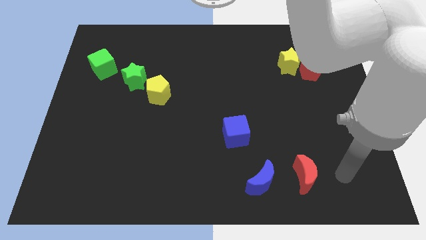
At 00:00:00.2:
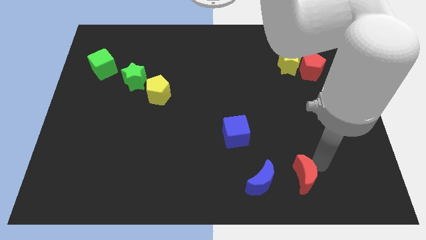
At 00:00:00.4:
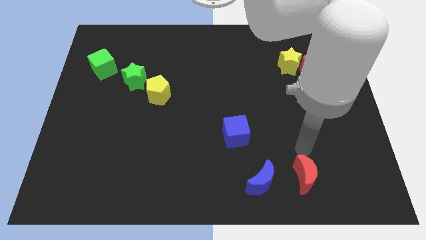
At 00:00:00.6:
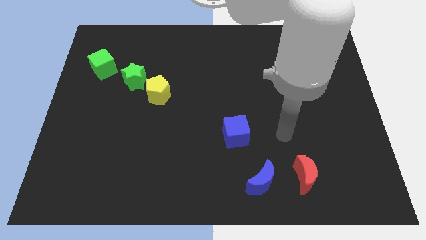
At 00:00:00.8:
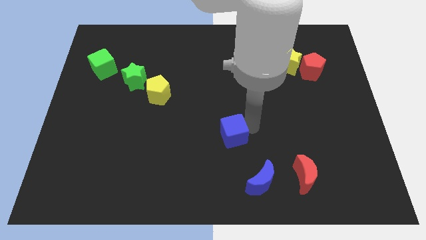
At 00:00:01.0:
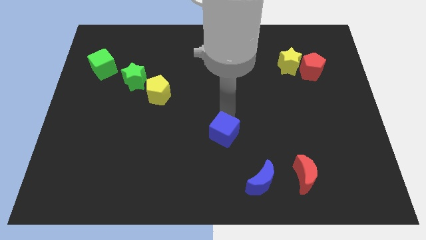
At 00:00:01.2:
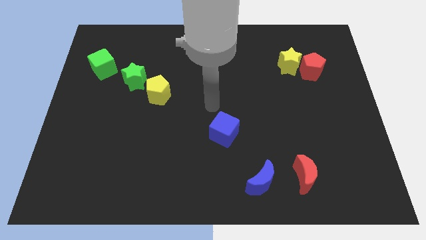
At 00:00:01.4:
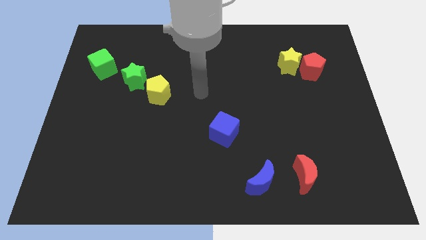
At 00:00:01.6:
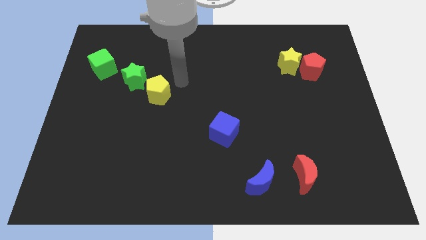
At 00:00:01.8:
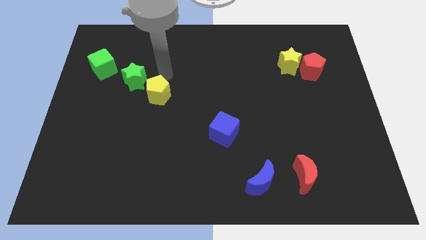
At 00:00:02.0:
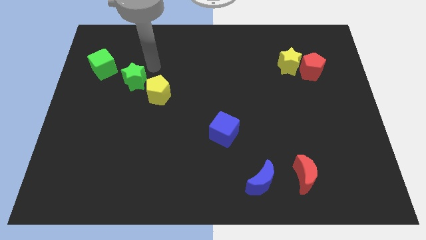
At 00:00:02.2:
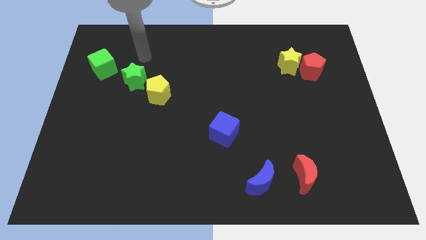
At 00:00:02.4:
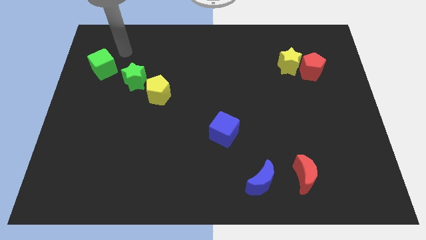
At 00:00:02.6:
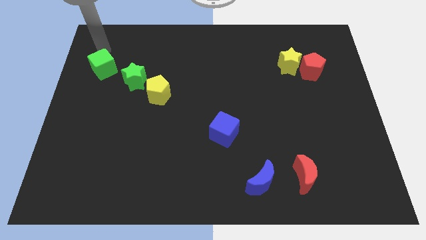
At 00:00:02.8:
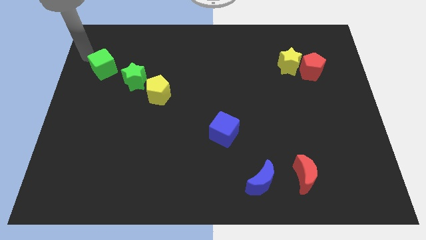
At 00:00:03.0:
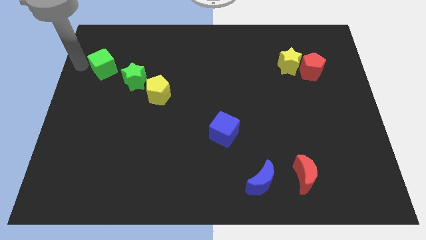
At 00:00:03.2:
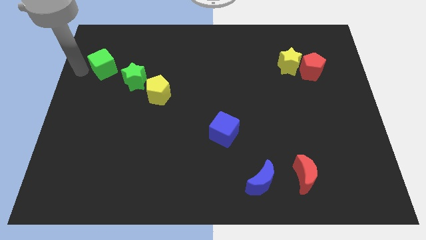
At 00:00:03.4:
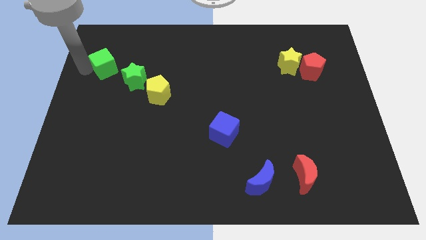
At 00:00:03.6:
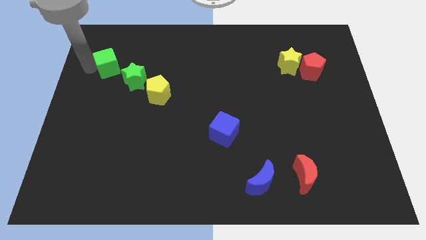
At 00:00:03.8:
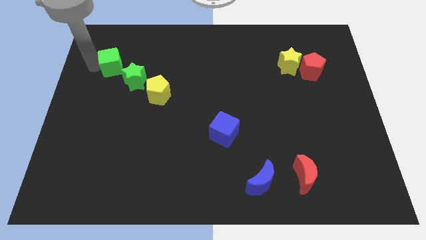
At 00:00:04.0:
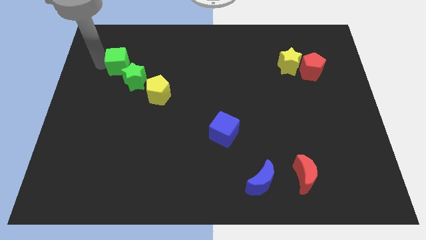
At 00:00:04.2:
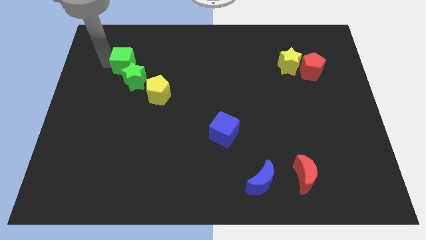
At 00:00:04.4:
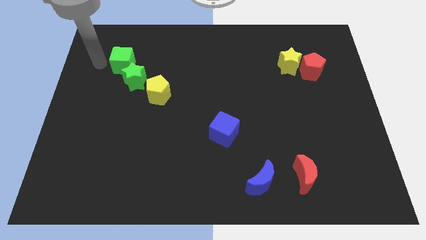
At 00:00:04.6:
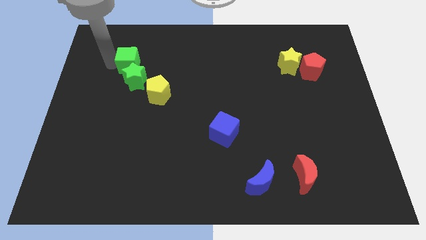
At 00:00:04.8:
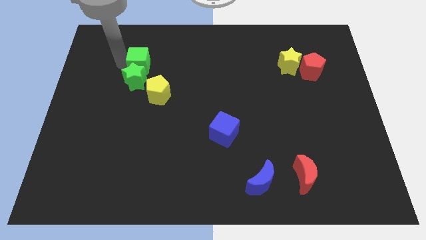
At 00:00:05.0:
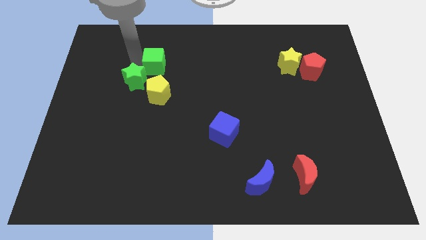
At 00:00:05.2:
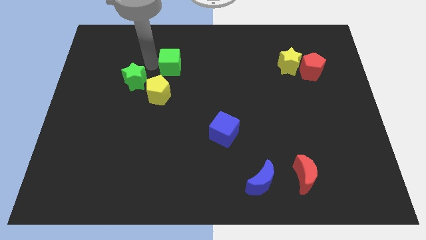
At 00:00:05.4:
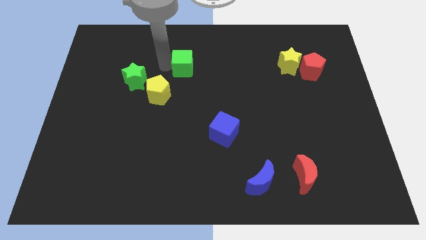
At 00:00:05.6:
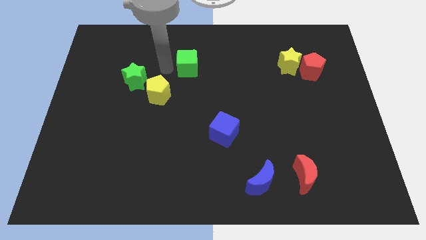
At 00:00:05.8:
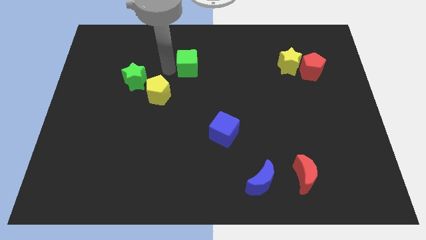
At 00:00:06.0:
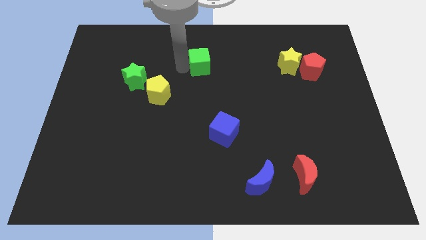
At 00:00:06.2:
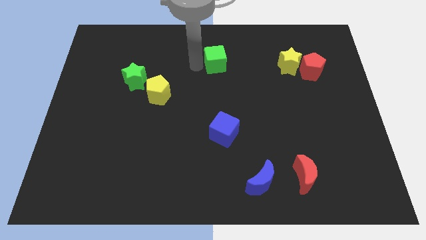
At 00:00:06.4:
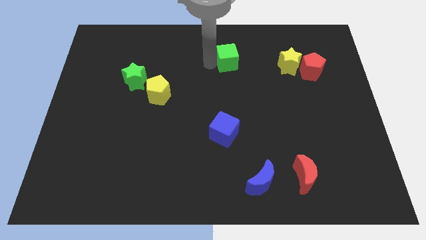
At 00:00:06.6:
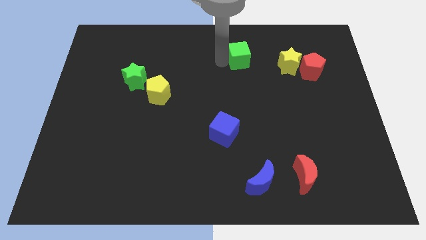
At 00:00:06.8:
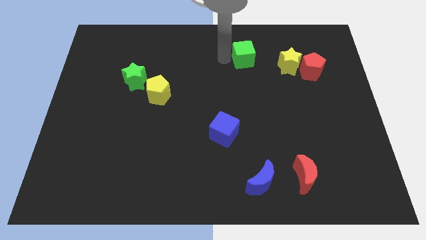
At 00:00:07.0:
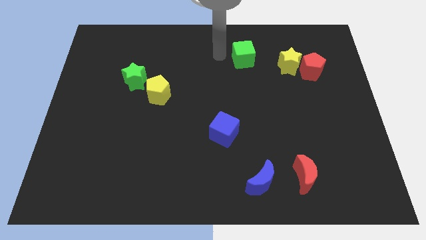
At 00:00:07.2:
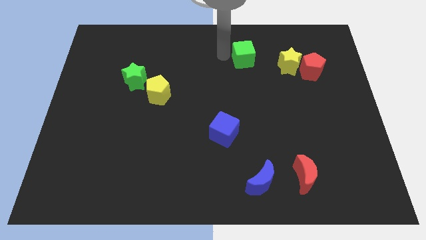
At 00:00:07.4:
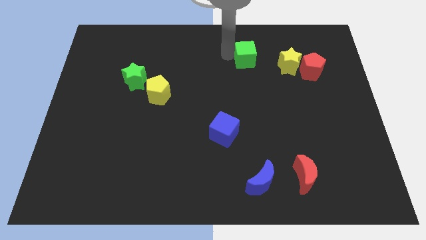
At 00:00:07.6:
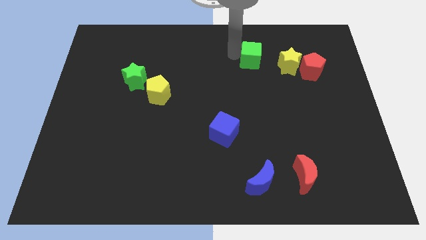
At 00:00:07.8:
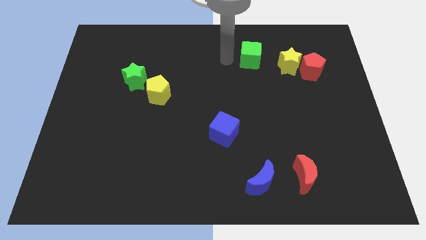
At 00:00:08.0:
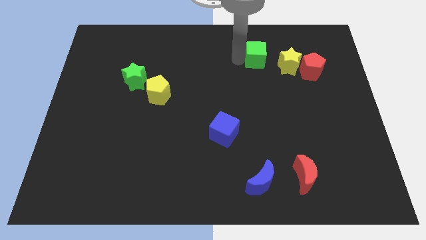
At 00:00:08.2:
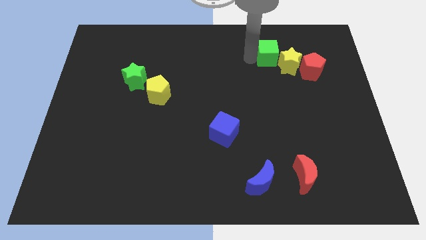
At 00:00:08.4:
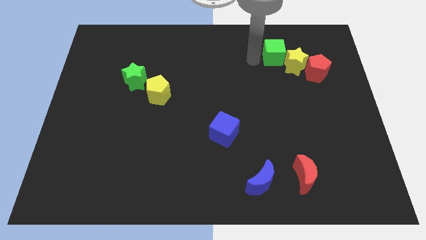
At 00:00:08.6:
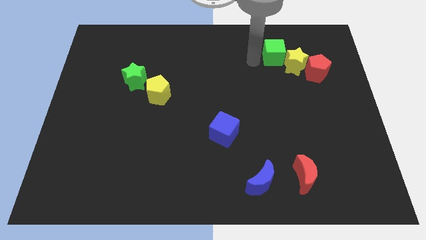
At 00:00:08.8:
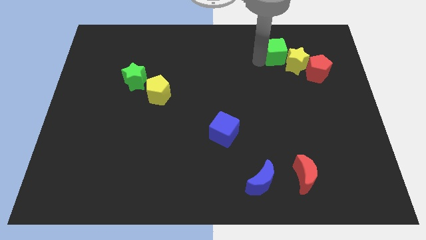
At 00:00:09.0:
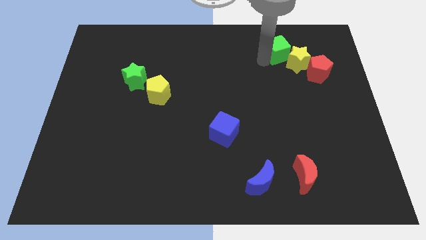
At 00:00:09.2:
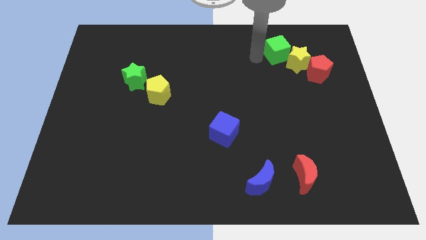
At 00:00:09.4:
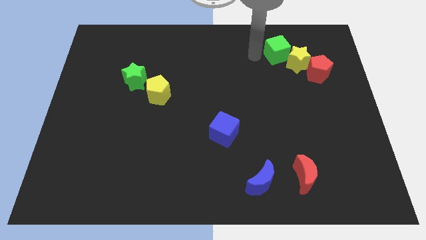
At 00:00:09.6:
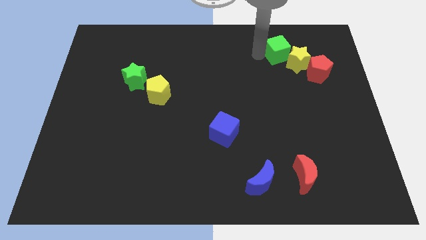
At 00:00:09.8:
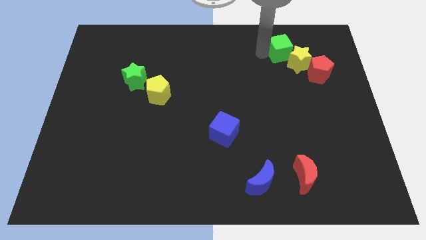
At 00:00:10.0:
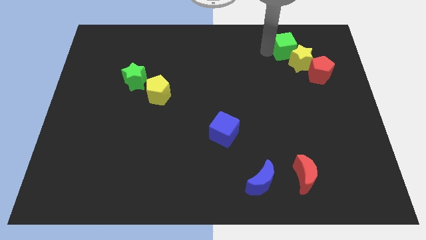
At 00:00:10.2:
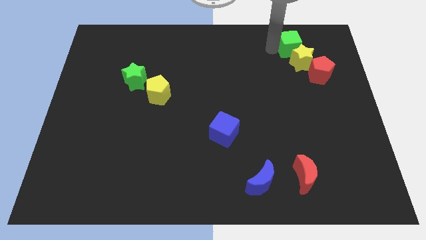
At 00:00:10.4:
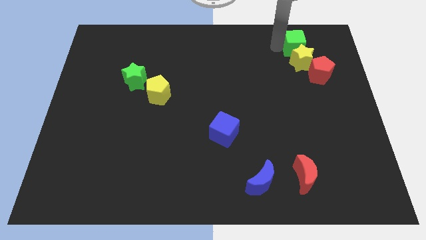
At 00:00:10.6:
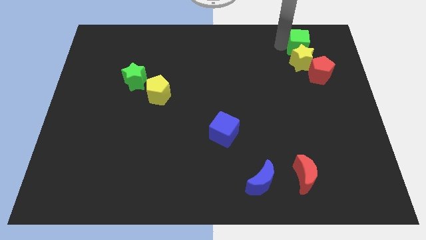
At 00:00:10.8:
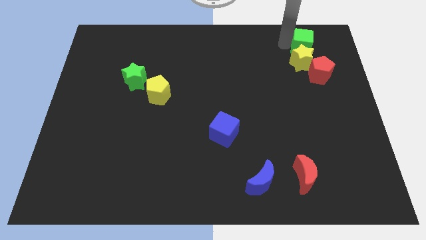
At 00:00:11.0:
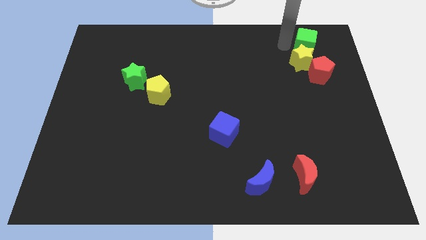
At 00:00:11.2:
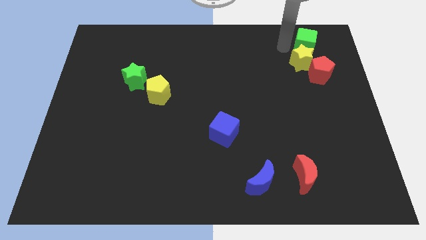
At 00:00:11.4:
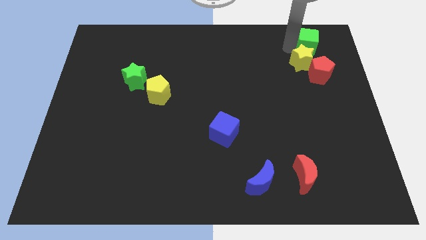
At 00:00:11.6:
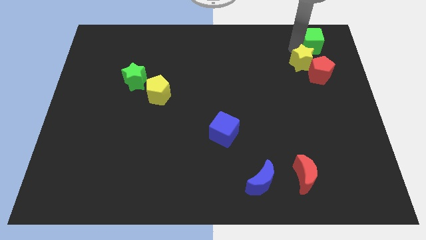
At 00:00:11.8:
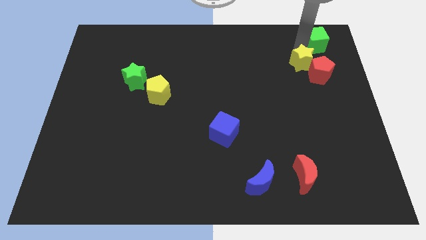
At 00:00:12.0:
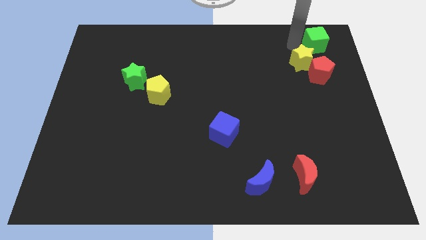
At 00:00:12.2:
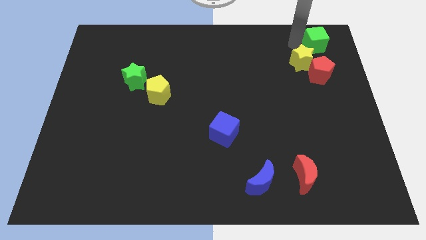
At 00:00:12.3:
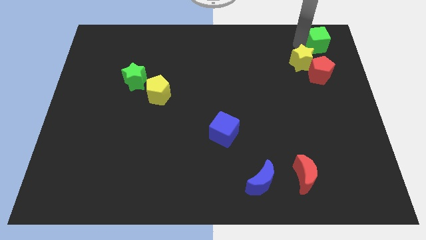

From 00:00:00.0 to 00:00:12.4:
put the green cube to the top right of the board
